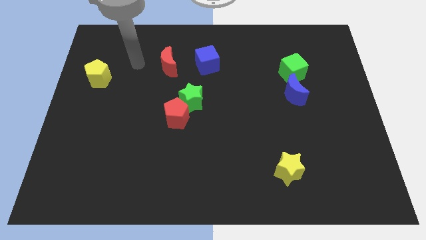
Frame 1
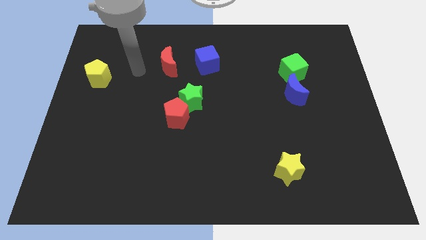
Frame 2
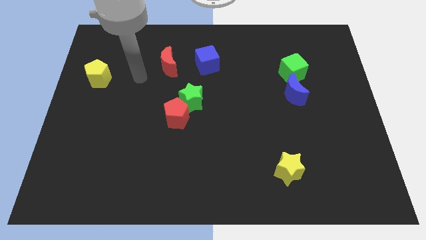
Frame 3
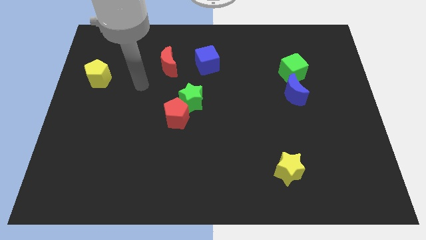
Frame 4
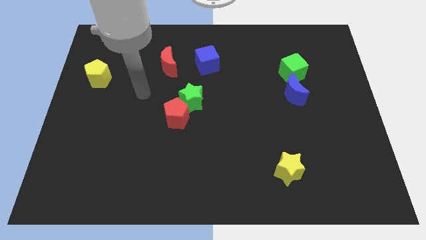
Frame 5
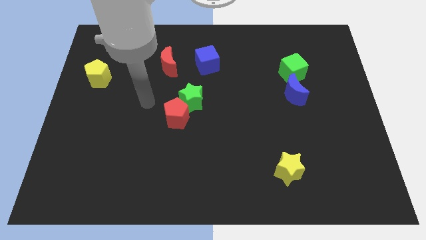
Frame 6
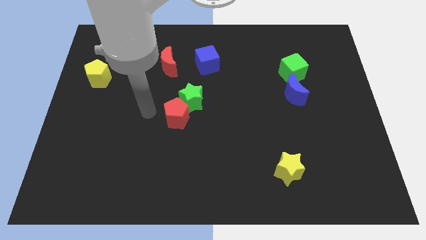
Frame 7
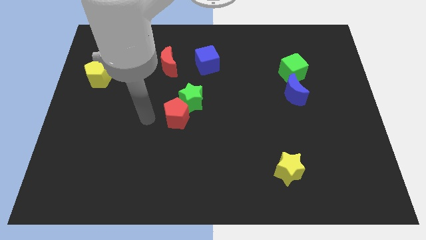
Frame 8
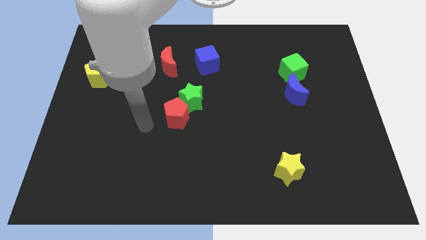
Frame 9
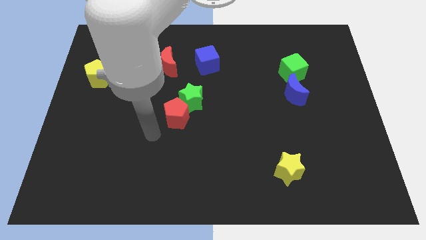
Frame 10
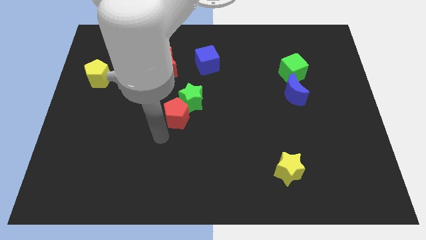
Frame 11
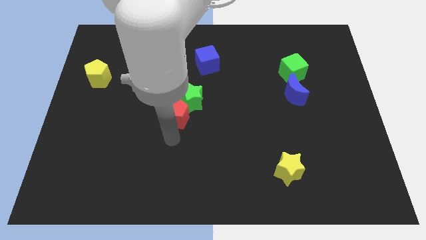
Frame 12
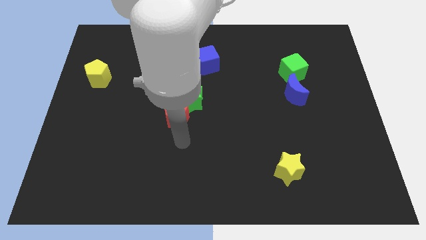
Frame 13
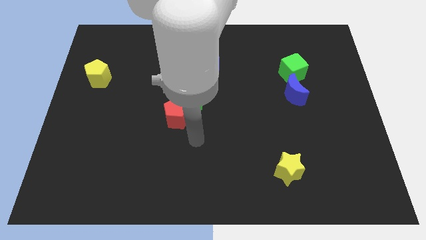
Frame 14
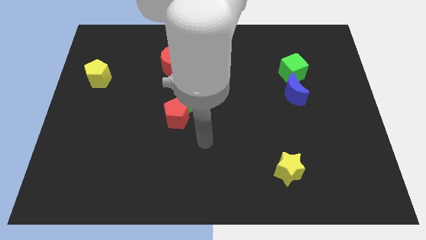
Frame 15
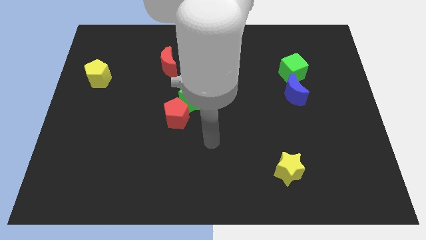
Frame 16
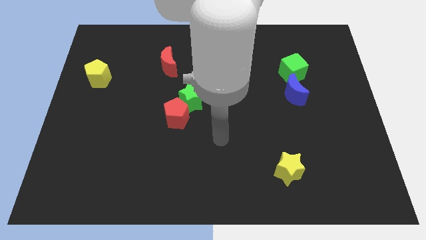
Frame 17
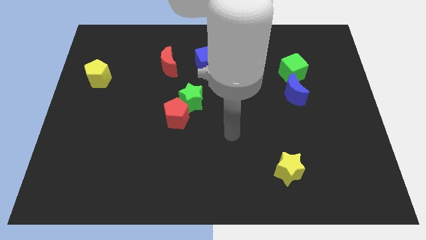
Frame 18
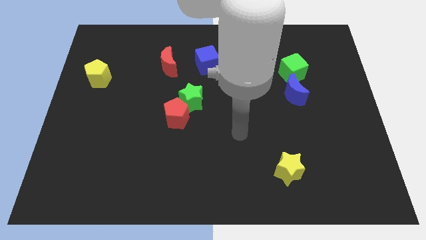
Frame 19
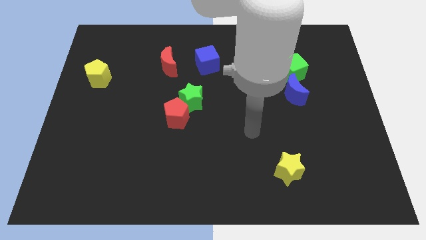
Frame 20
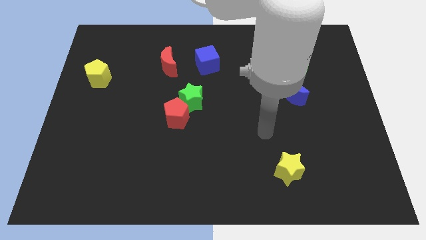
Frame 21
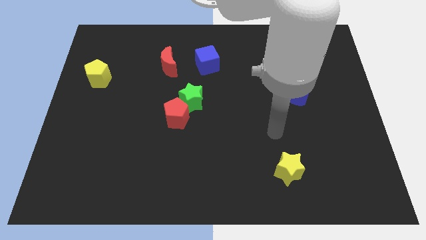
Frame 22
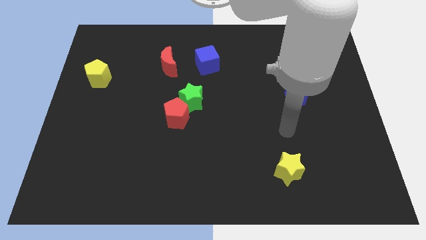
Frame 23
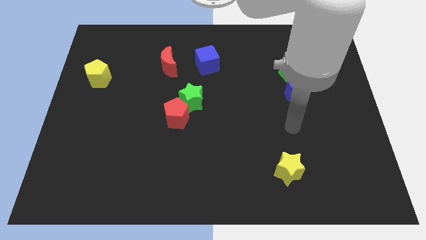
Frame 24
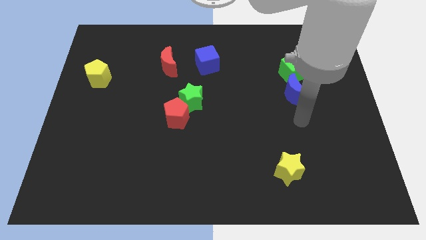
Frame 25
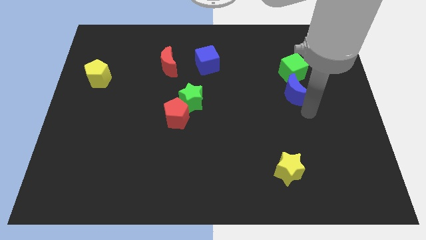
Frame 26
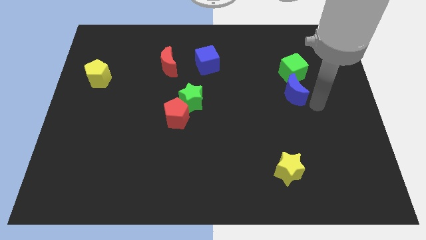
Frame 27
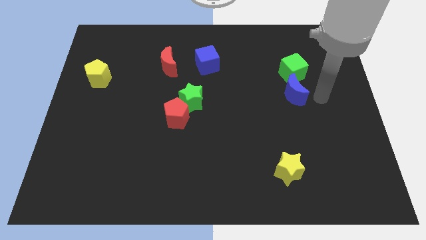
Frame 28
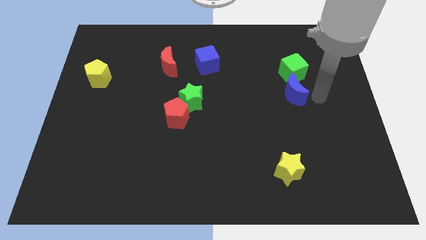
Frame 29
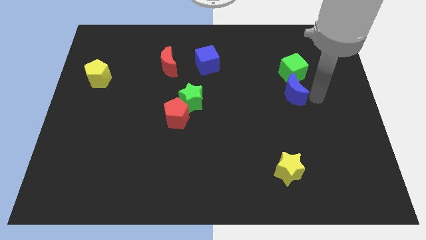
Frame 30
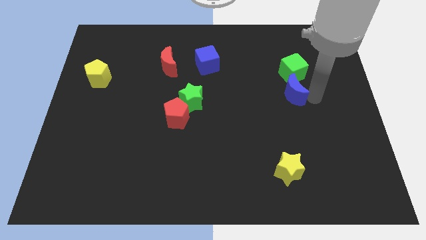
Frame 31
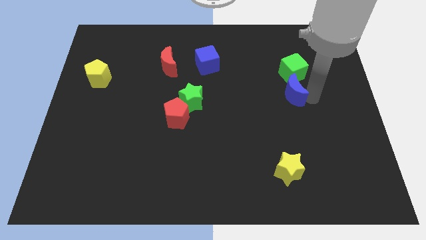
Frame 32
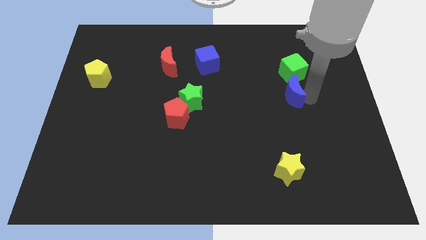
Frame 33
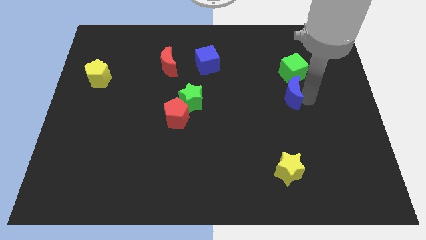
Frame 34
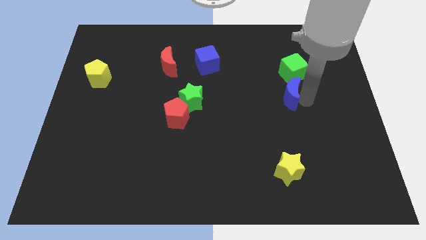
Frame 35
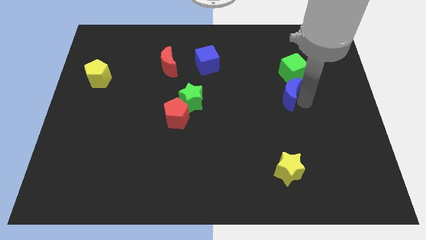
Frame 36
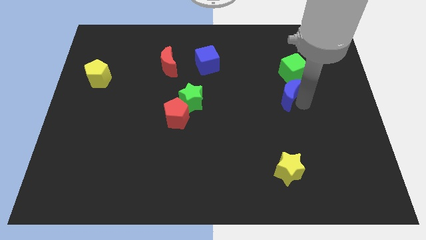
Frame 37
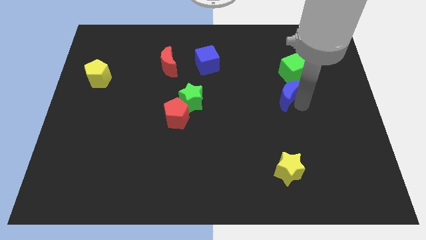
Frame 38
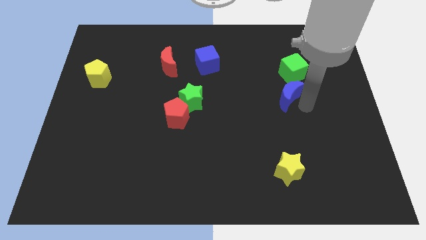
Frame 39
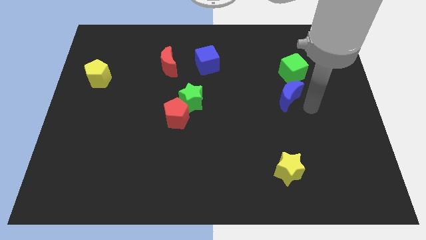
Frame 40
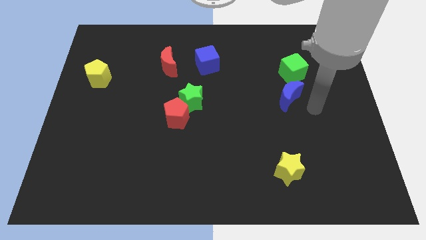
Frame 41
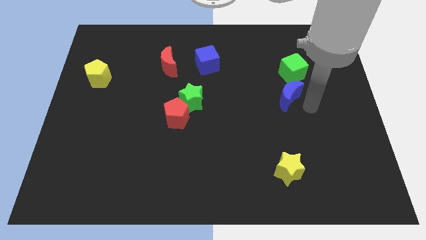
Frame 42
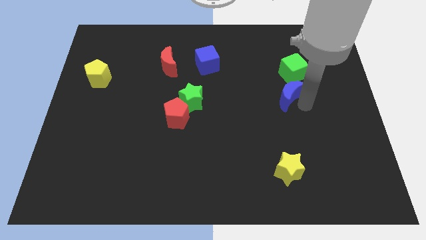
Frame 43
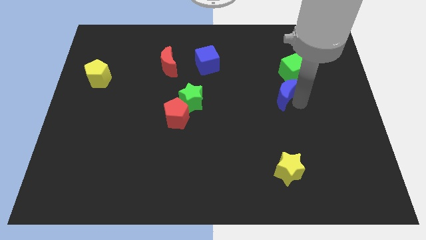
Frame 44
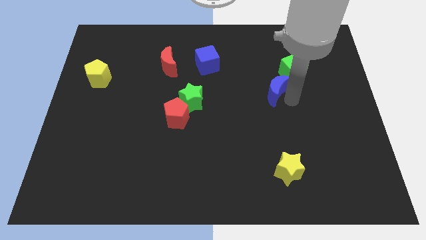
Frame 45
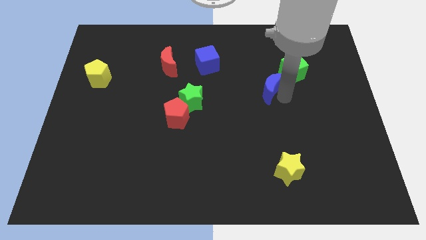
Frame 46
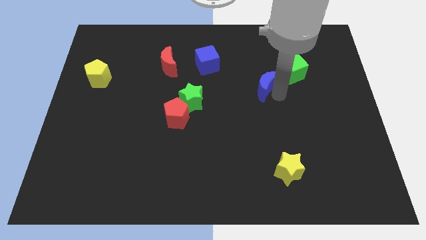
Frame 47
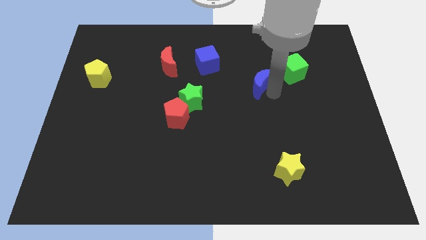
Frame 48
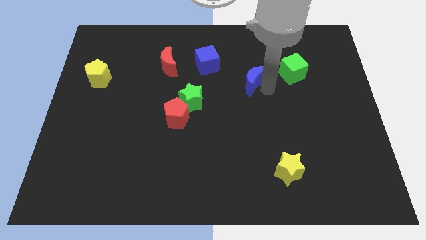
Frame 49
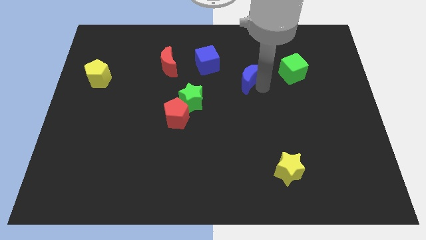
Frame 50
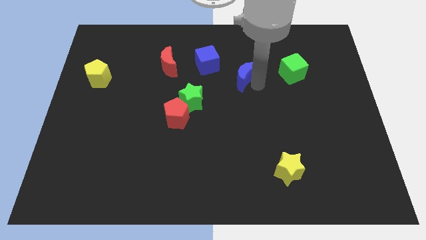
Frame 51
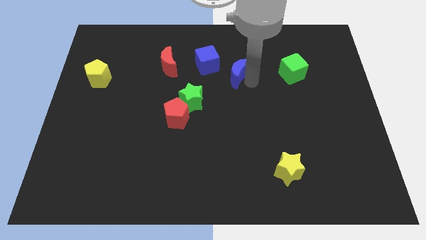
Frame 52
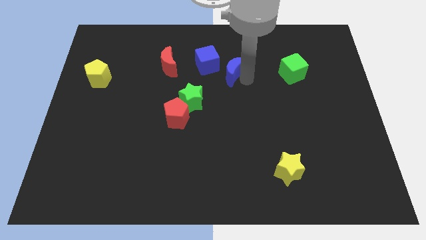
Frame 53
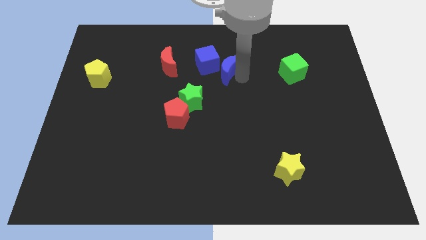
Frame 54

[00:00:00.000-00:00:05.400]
slide the blue moon next to the blue cube
